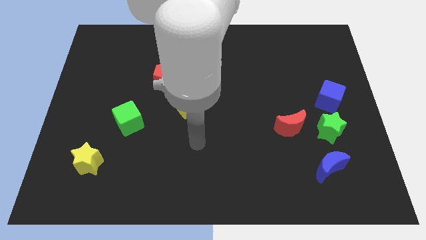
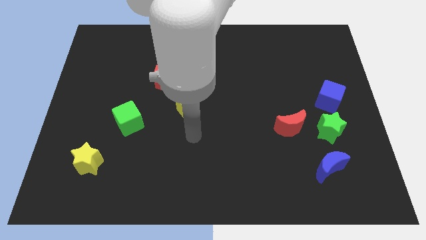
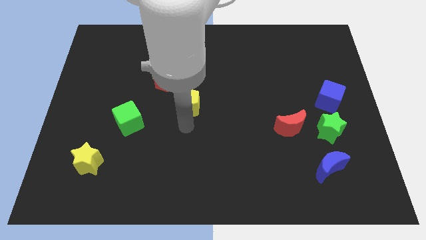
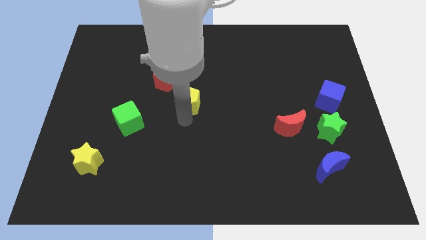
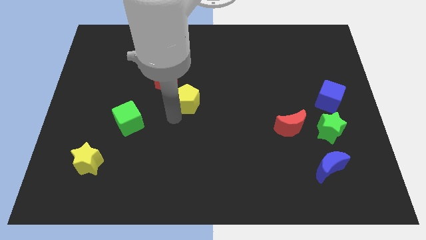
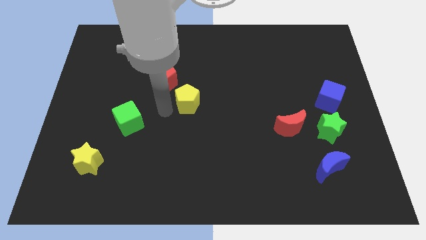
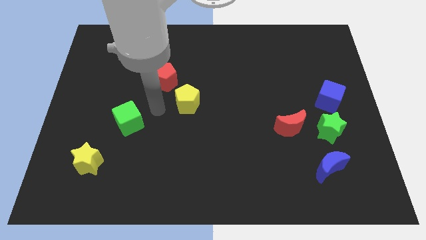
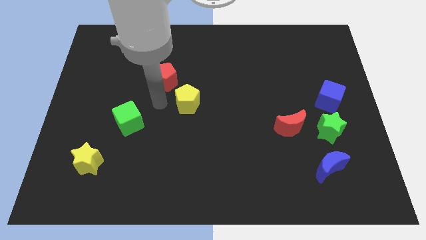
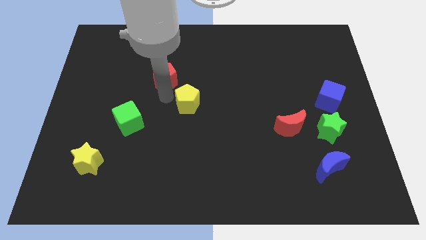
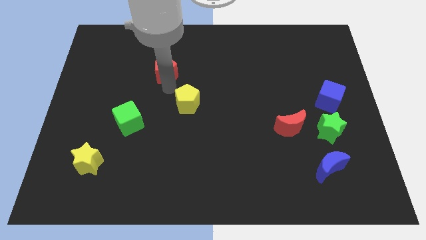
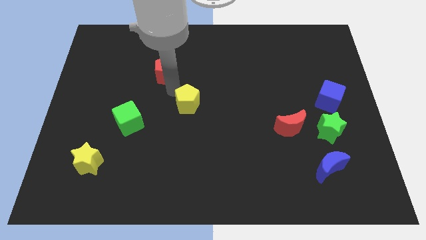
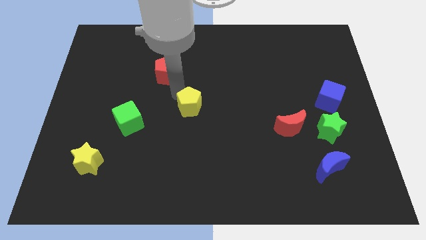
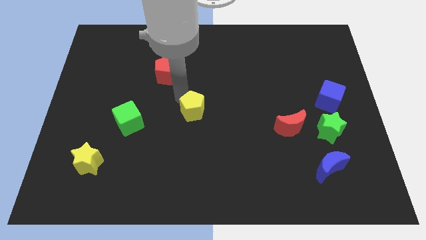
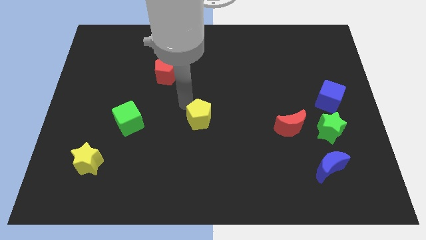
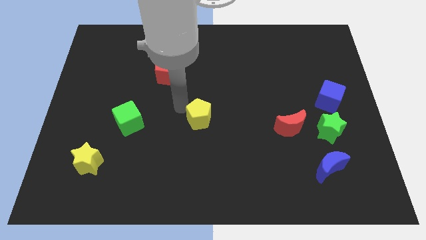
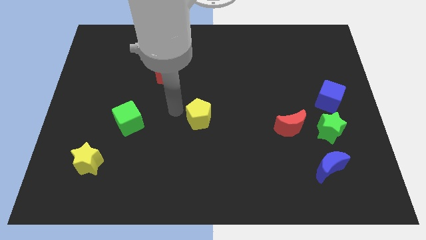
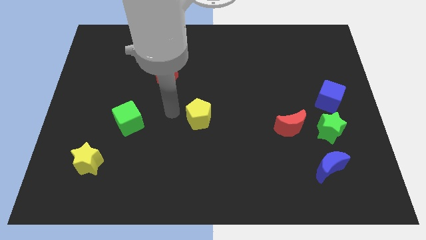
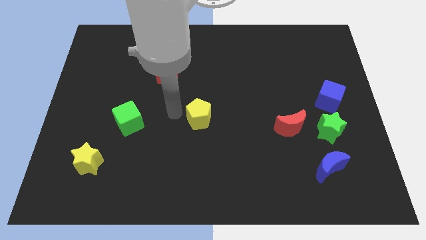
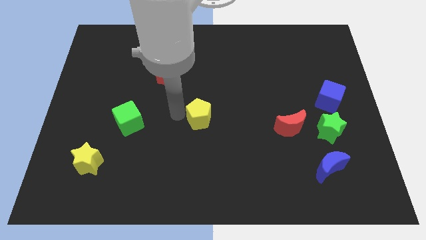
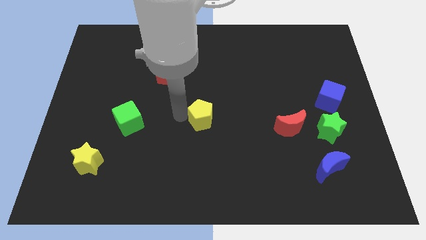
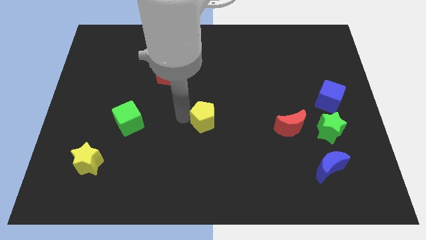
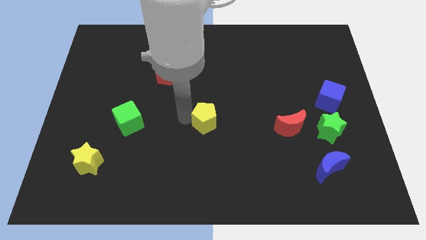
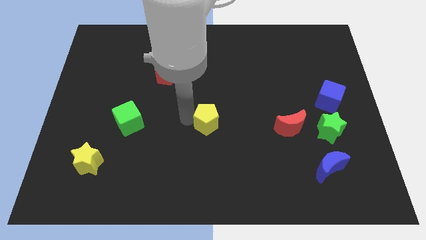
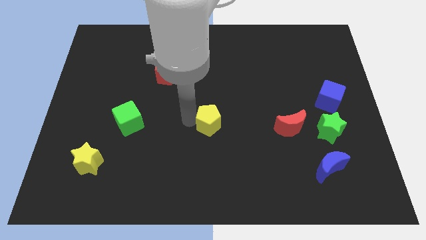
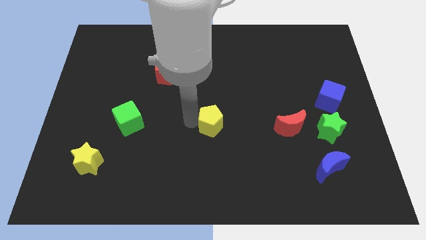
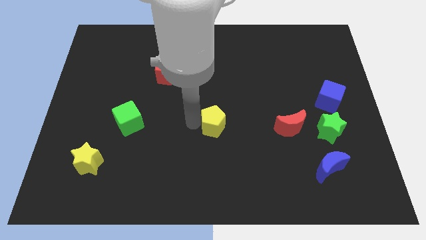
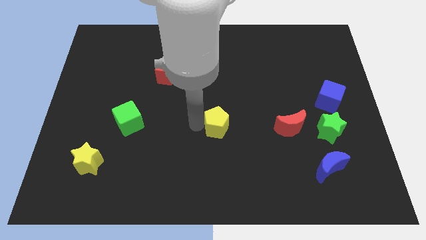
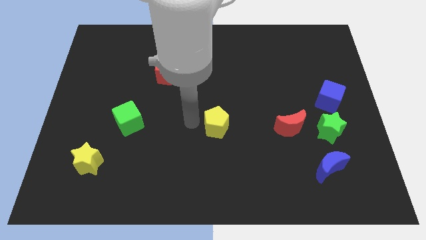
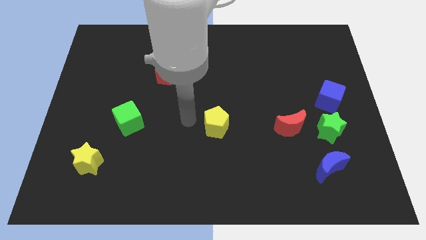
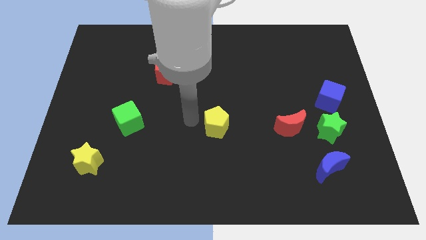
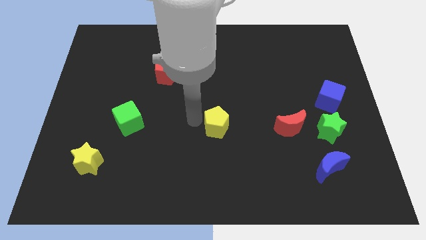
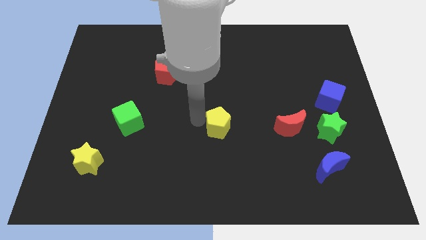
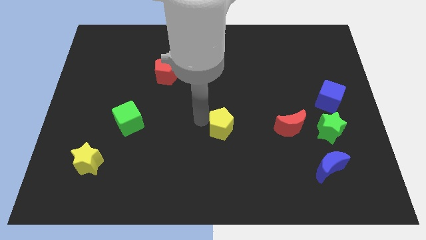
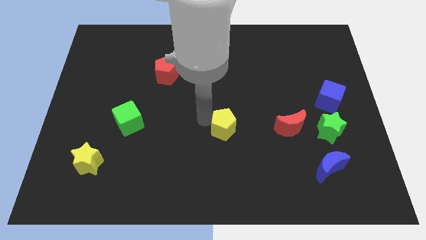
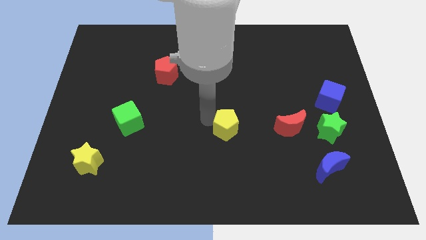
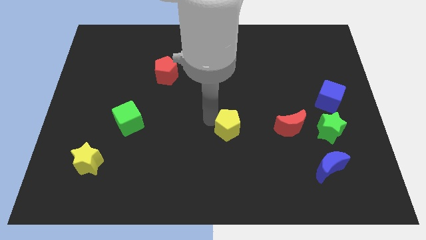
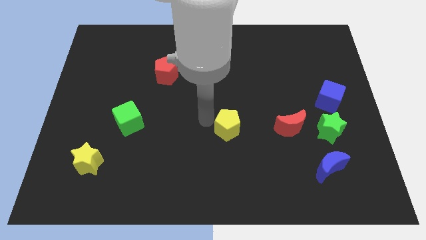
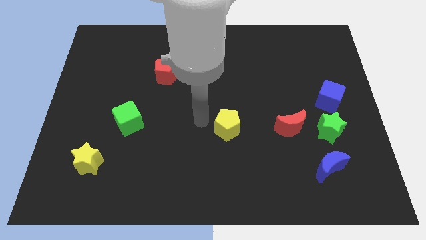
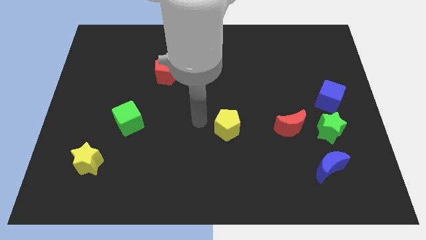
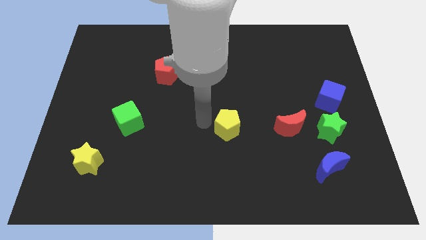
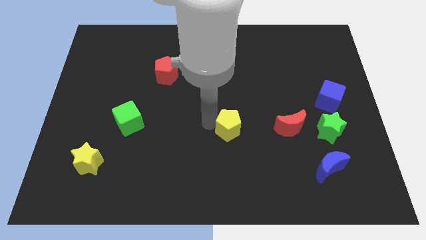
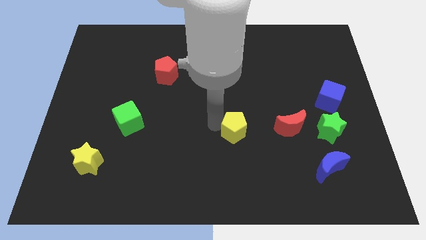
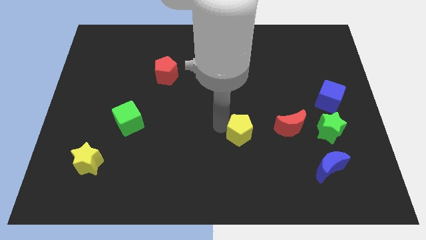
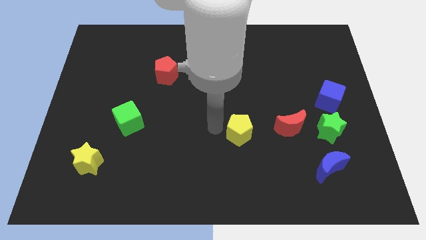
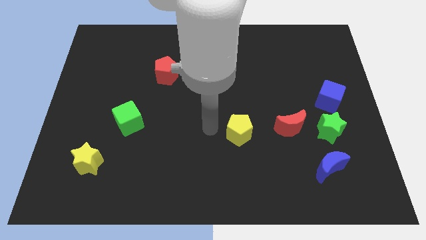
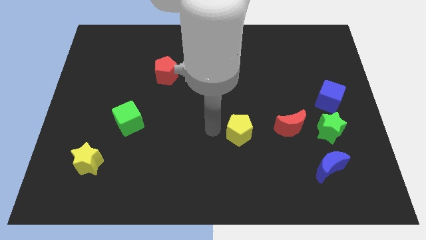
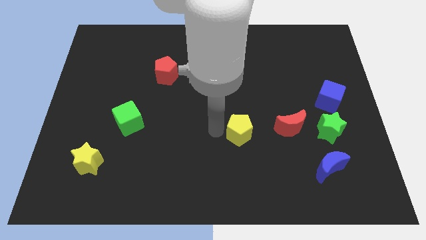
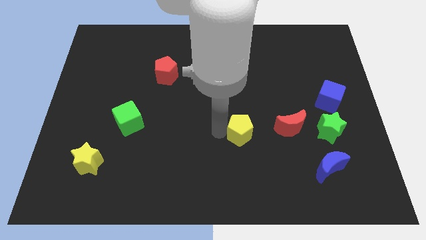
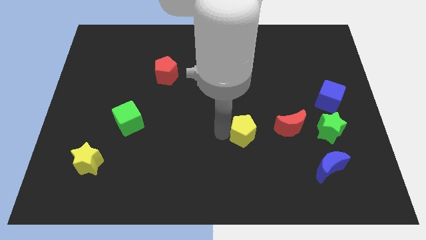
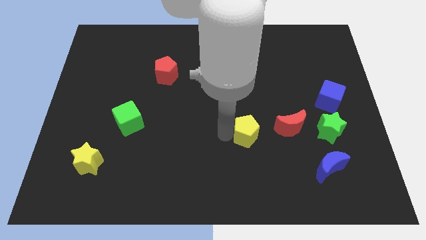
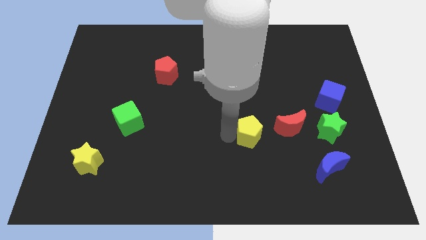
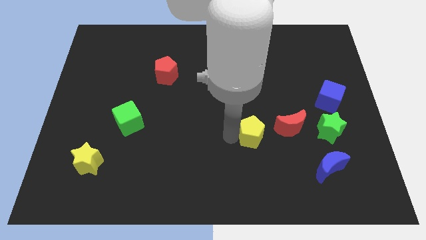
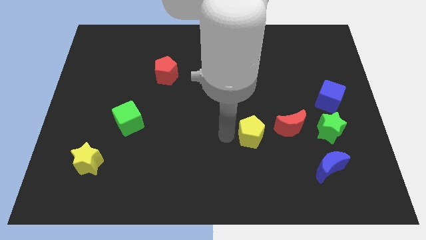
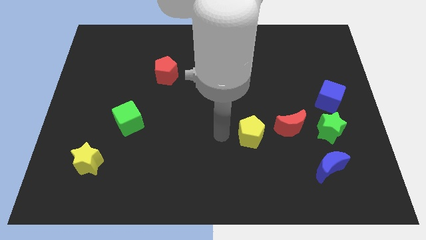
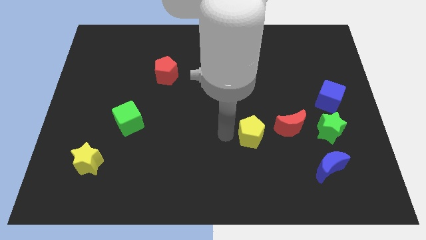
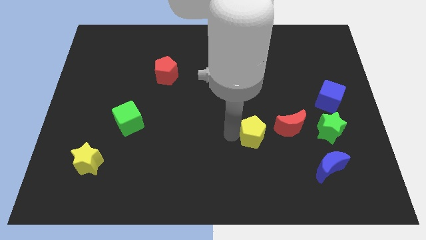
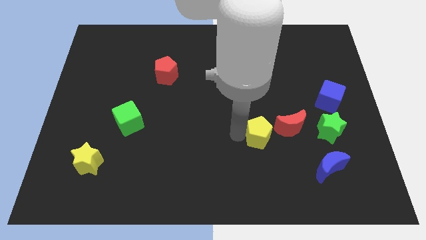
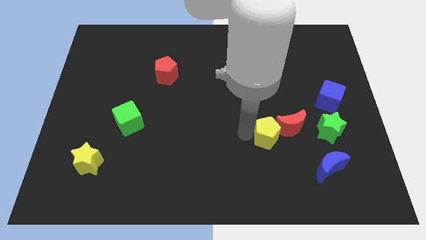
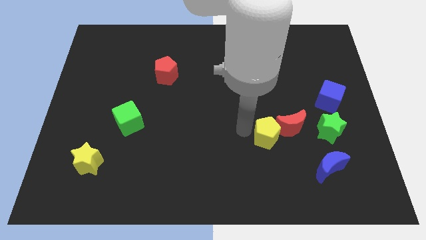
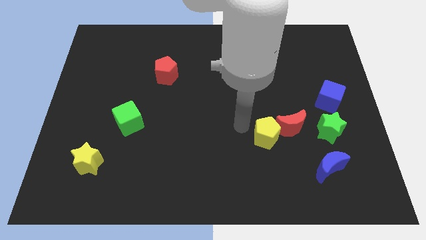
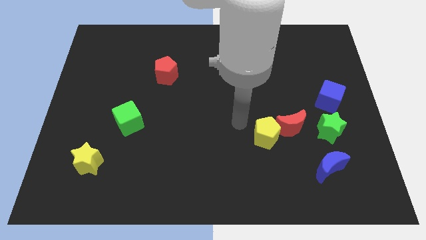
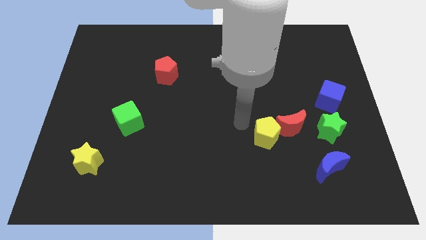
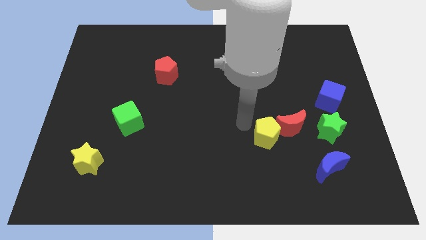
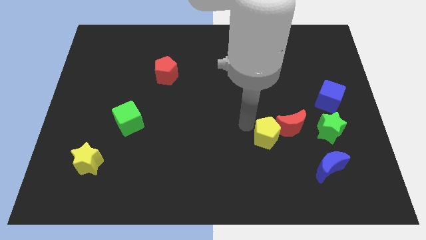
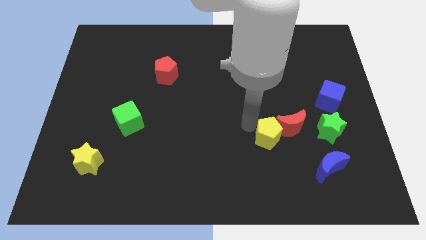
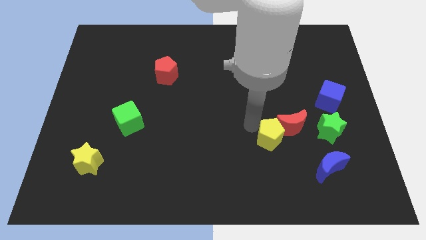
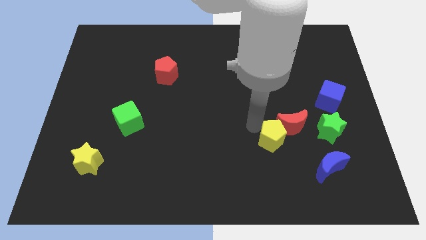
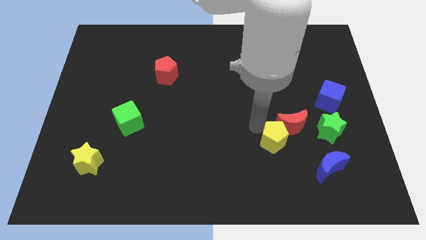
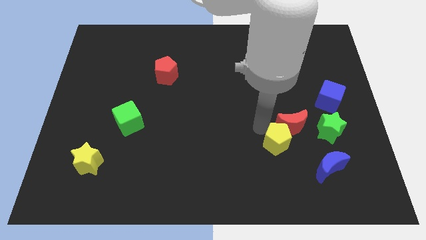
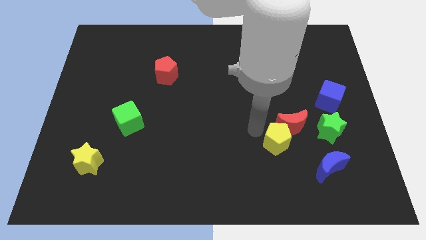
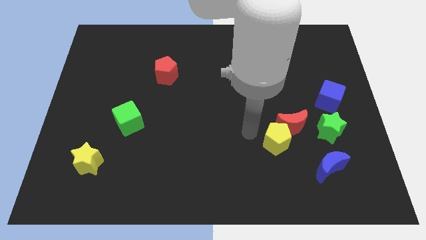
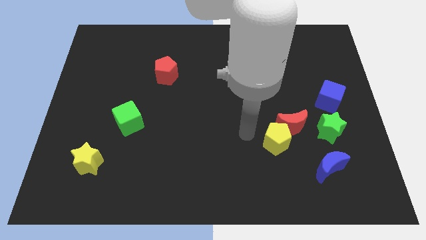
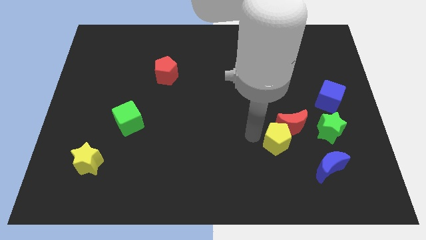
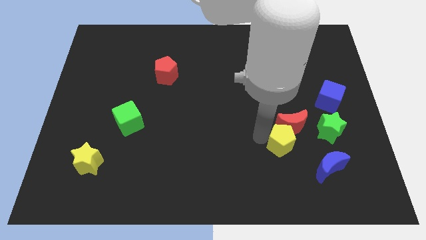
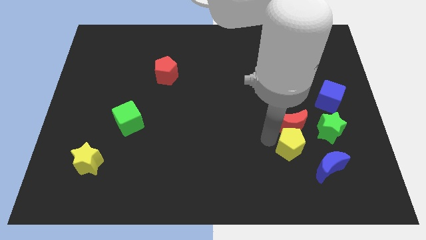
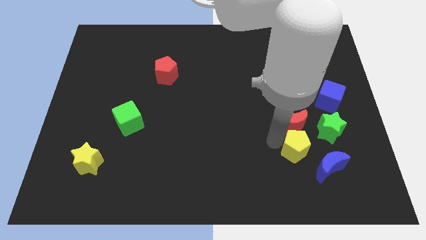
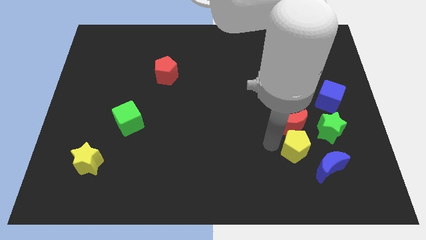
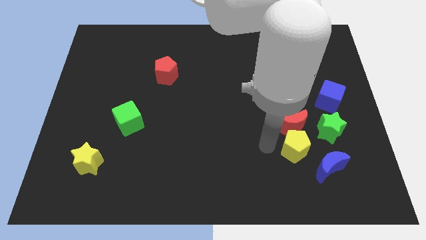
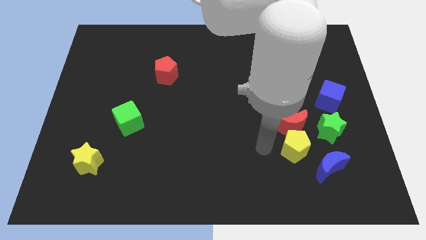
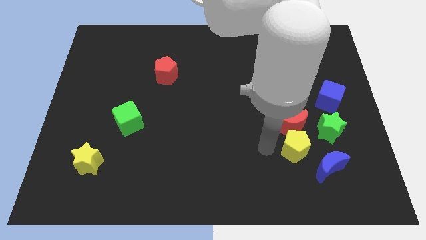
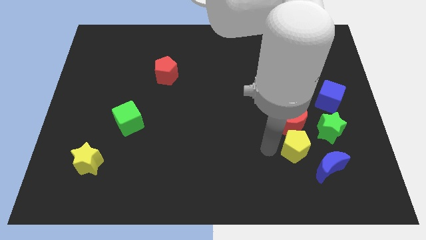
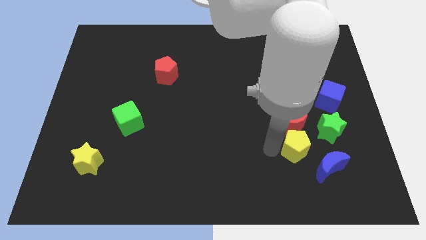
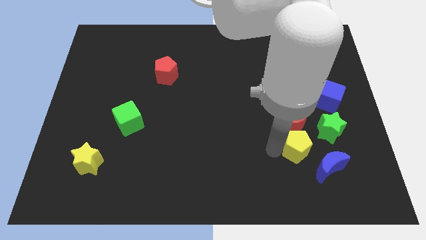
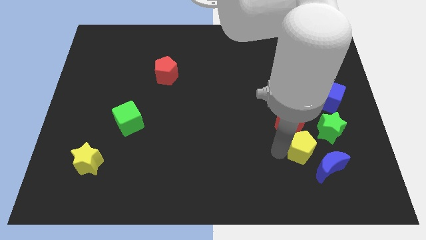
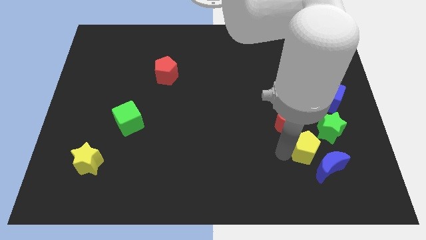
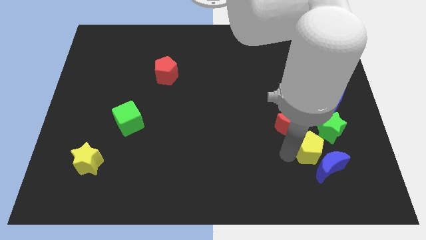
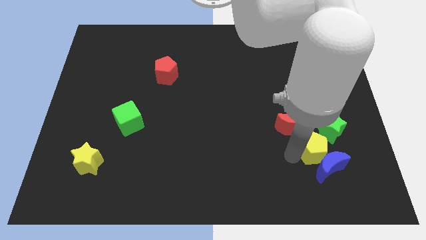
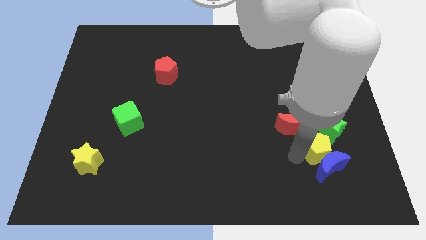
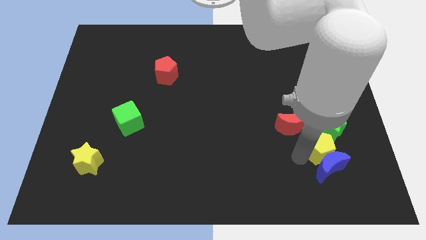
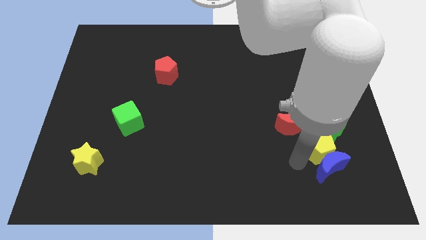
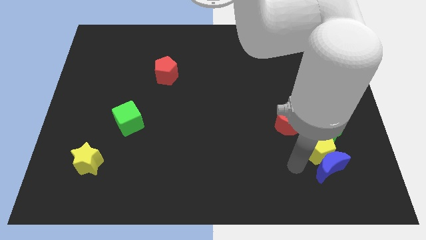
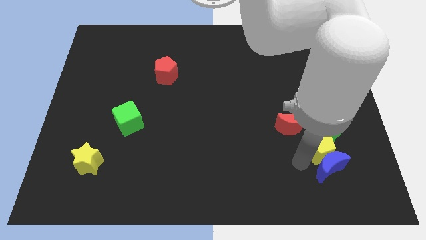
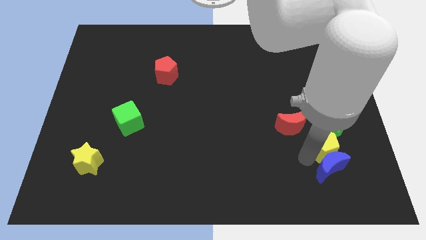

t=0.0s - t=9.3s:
push the yellow pentagon to the bottom of the blue cube
